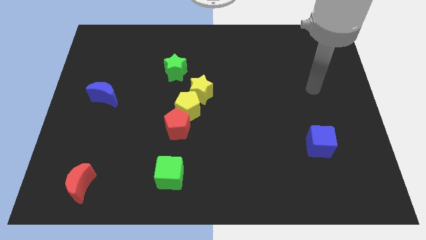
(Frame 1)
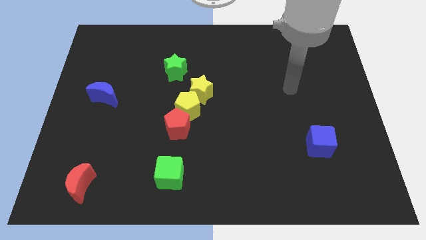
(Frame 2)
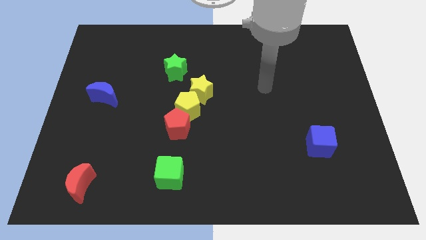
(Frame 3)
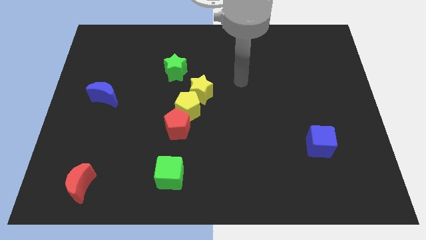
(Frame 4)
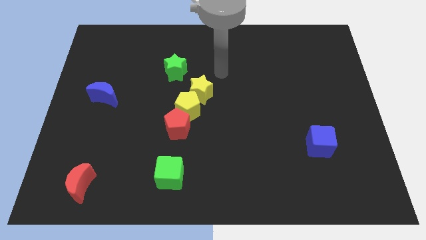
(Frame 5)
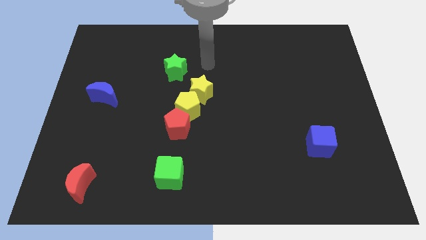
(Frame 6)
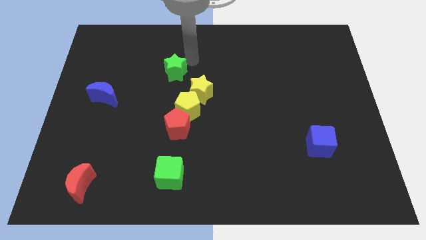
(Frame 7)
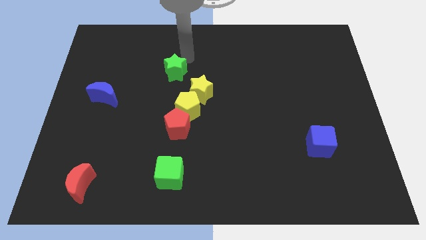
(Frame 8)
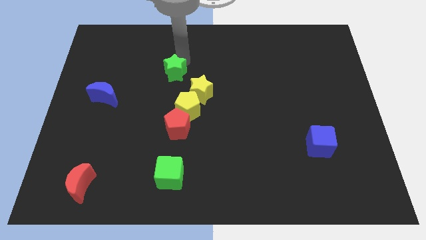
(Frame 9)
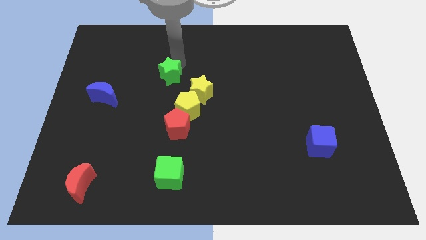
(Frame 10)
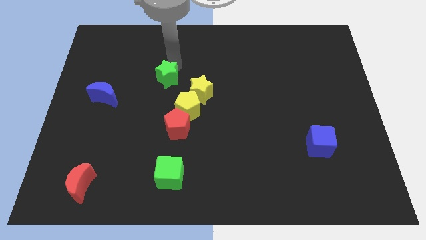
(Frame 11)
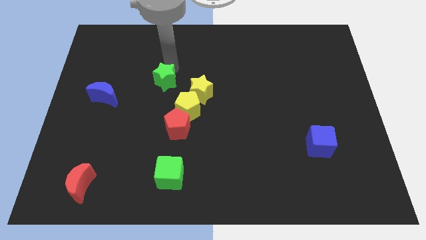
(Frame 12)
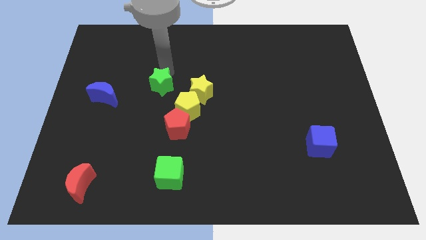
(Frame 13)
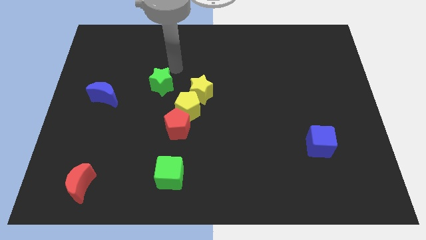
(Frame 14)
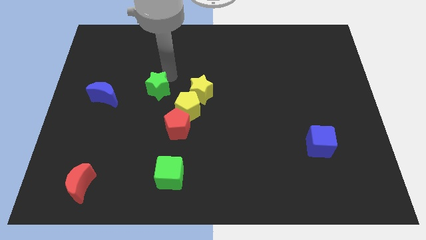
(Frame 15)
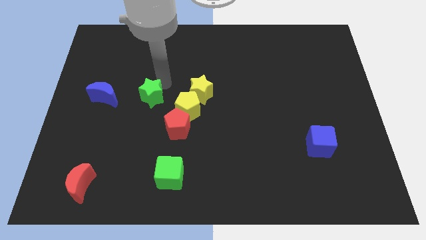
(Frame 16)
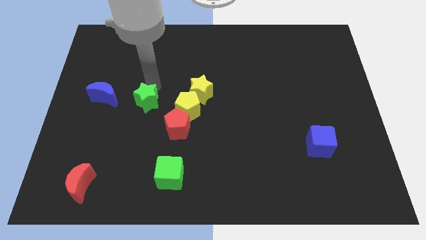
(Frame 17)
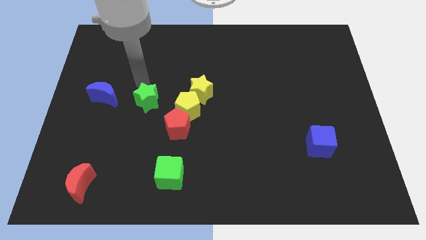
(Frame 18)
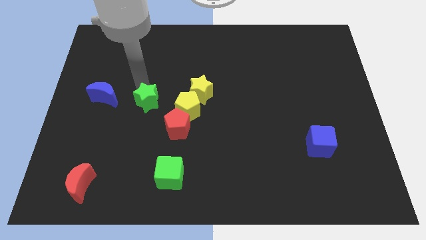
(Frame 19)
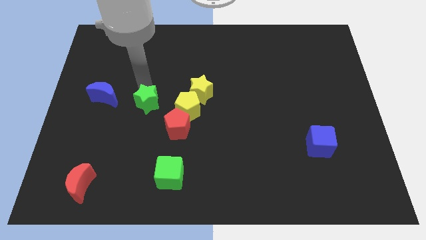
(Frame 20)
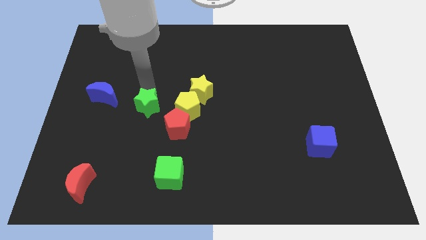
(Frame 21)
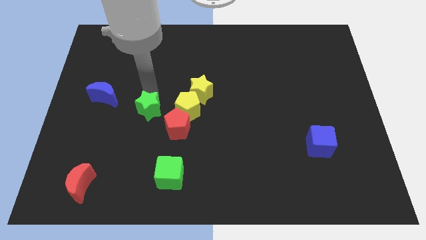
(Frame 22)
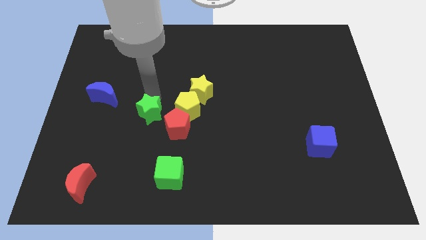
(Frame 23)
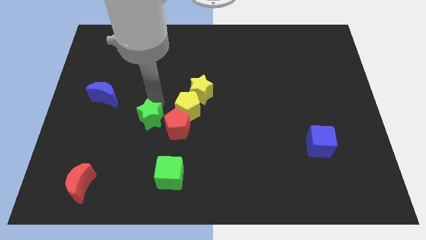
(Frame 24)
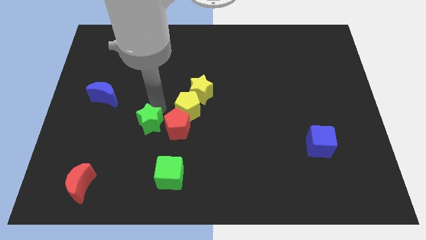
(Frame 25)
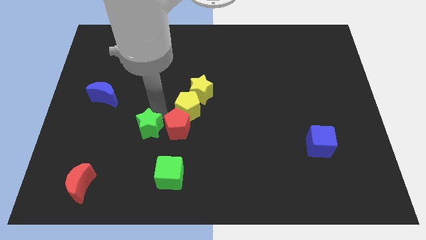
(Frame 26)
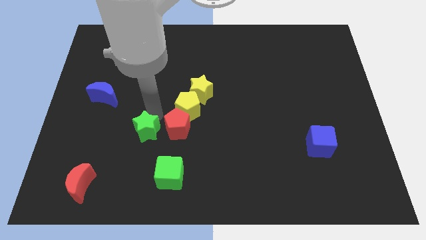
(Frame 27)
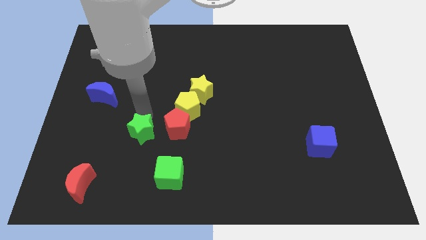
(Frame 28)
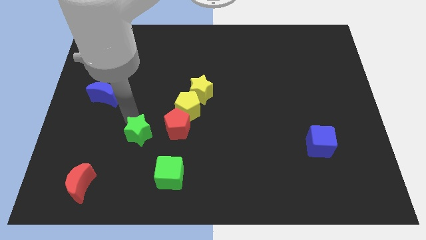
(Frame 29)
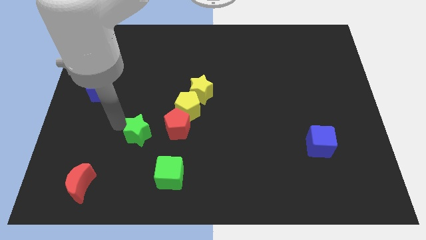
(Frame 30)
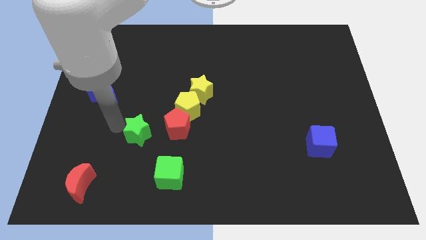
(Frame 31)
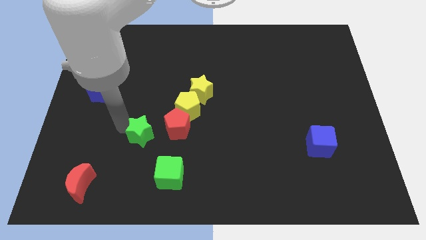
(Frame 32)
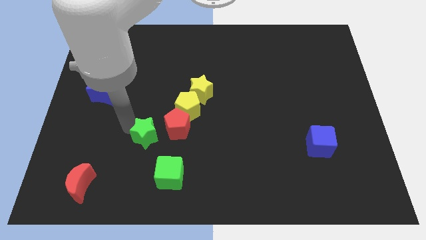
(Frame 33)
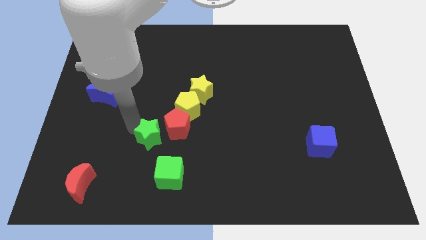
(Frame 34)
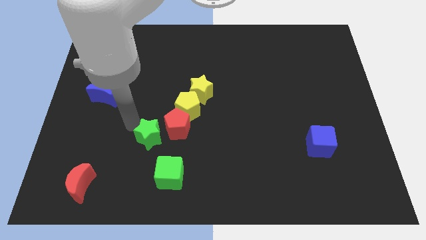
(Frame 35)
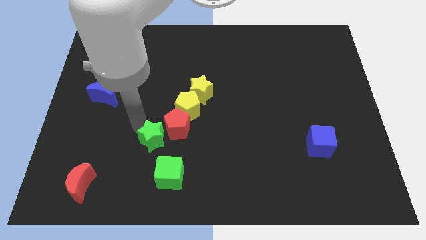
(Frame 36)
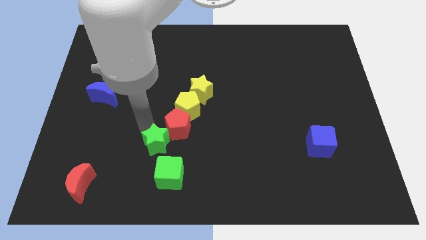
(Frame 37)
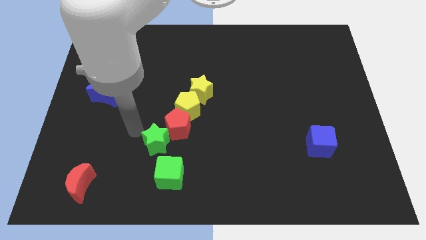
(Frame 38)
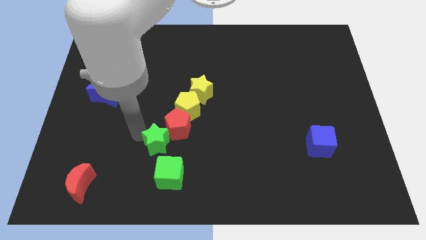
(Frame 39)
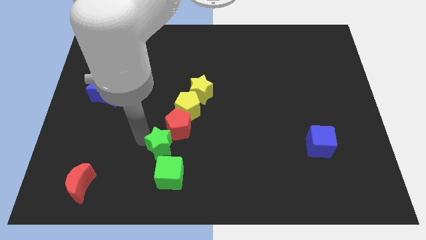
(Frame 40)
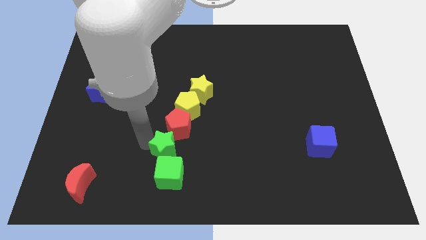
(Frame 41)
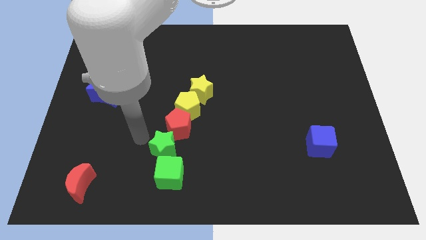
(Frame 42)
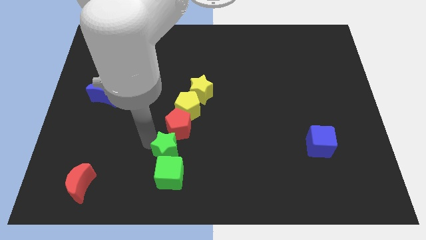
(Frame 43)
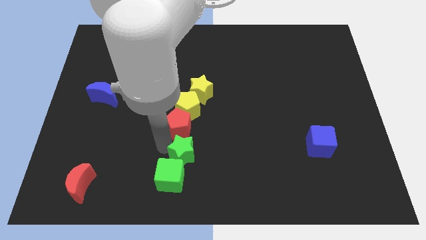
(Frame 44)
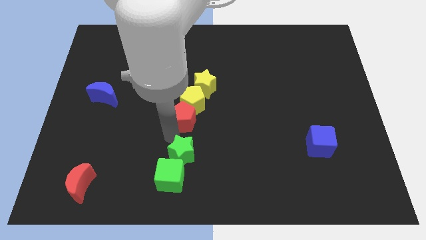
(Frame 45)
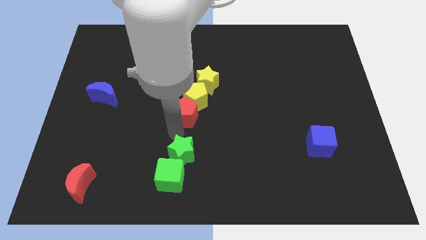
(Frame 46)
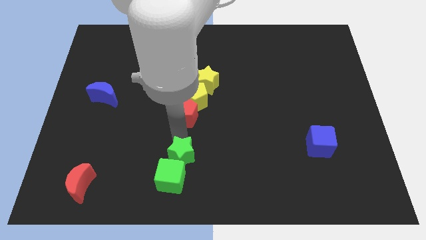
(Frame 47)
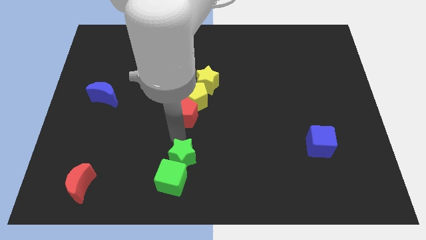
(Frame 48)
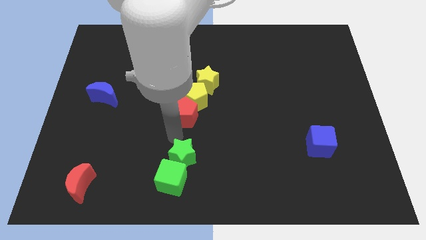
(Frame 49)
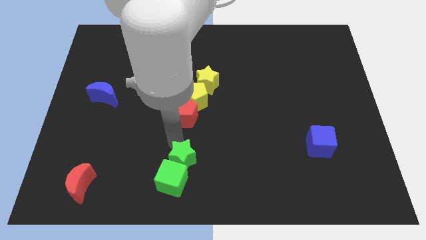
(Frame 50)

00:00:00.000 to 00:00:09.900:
put the green star to the bottom

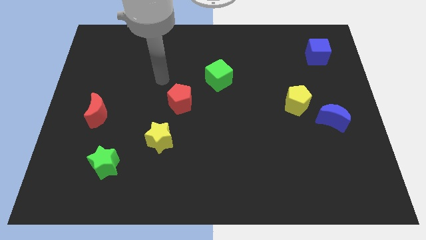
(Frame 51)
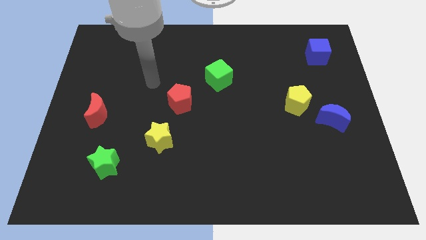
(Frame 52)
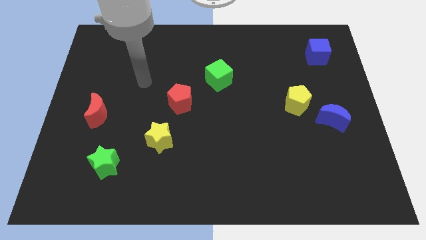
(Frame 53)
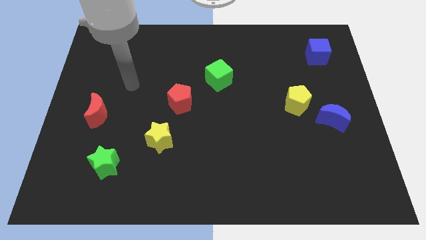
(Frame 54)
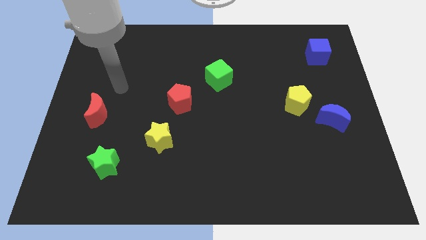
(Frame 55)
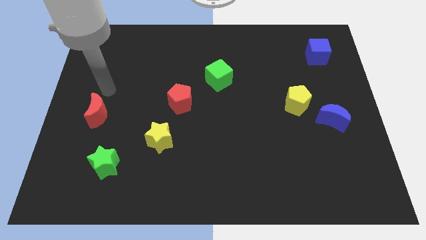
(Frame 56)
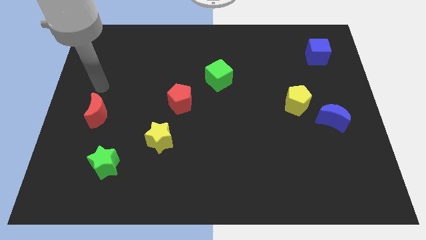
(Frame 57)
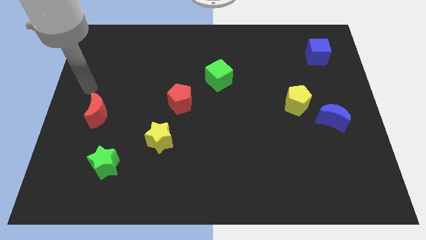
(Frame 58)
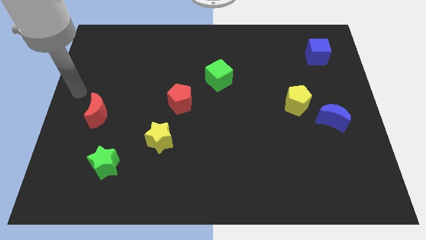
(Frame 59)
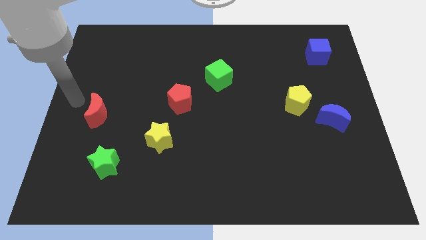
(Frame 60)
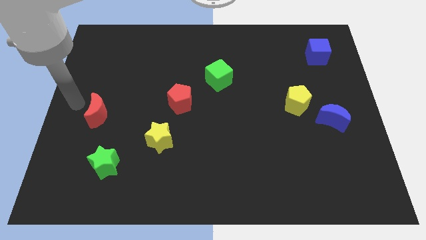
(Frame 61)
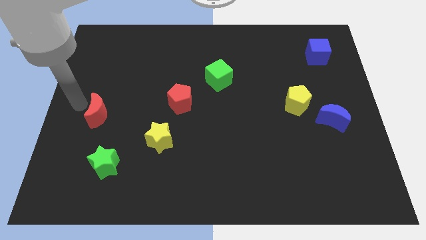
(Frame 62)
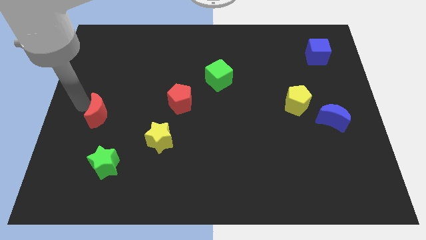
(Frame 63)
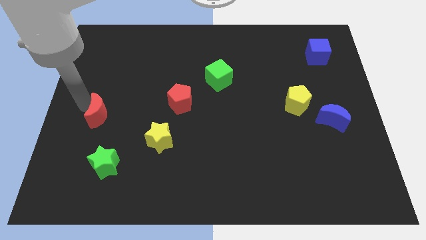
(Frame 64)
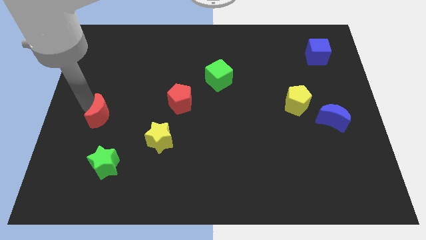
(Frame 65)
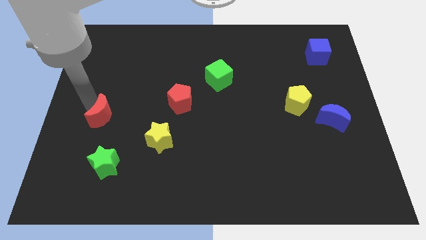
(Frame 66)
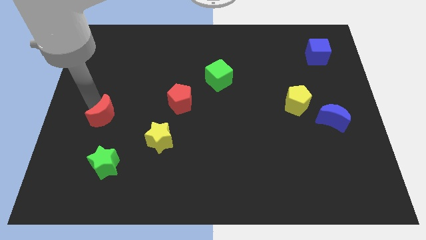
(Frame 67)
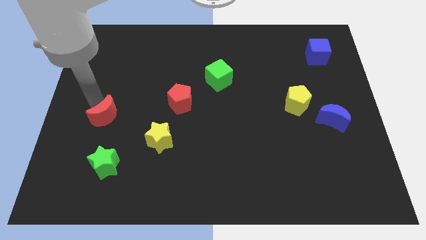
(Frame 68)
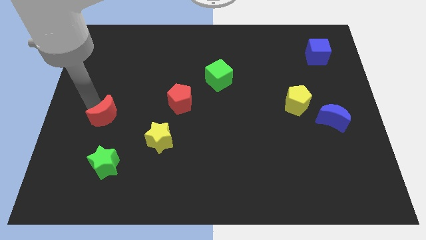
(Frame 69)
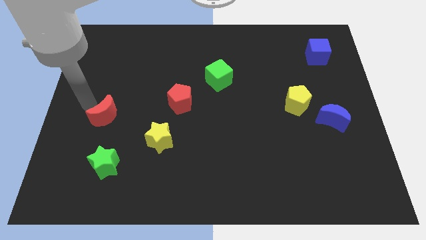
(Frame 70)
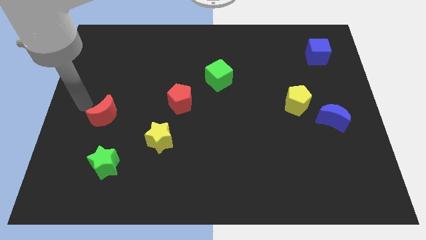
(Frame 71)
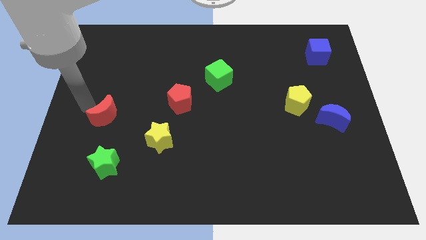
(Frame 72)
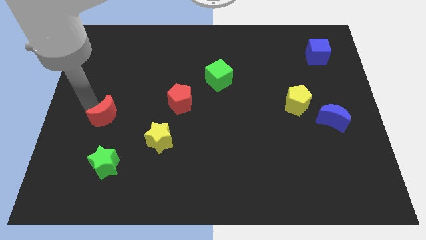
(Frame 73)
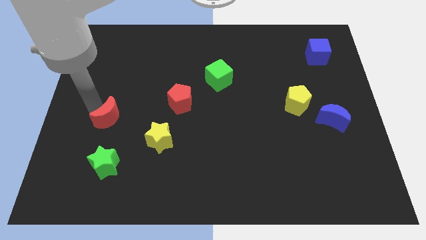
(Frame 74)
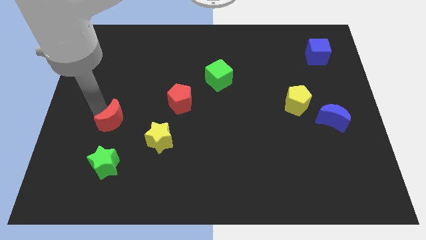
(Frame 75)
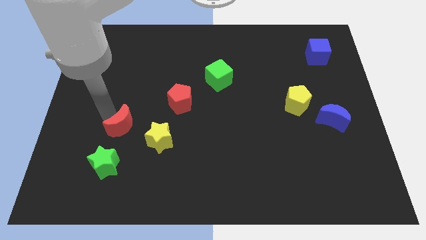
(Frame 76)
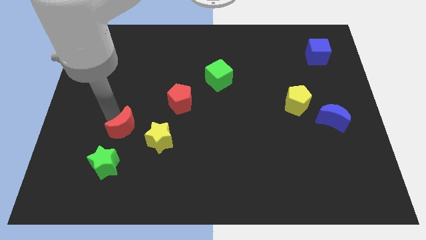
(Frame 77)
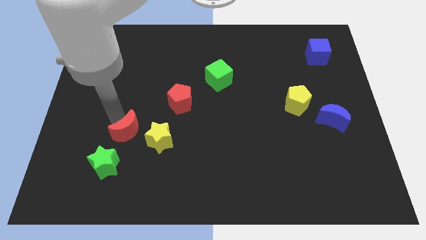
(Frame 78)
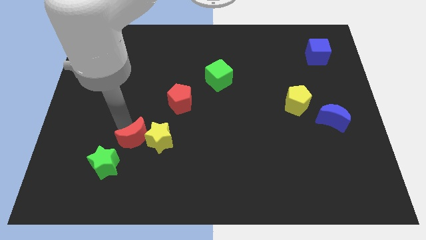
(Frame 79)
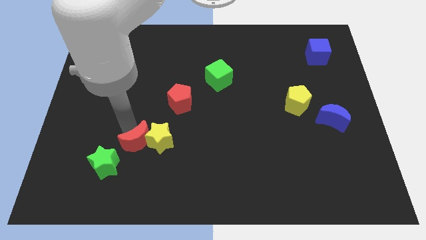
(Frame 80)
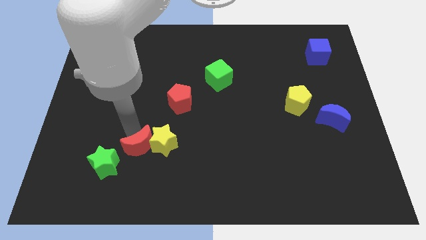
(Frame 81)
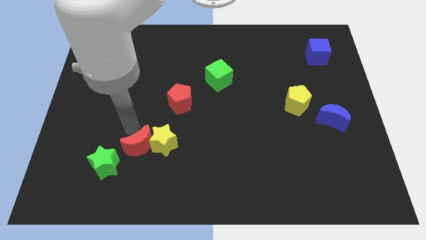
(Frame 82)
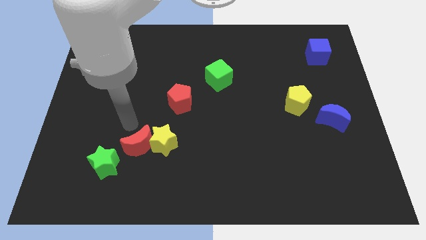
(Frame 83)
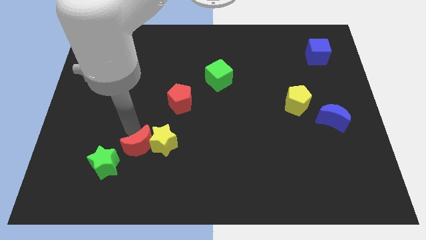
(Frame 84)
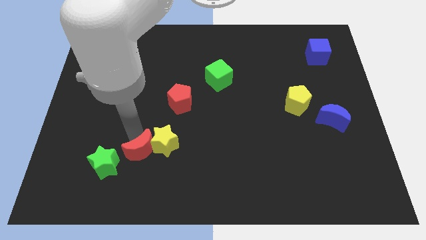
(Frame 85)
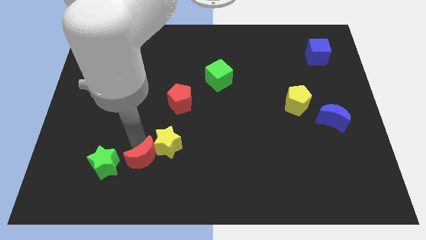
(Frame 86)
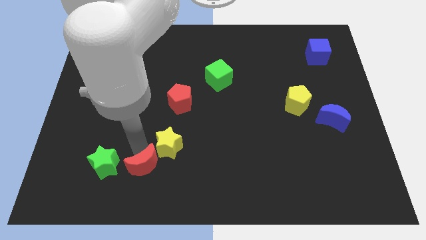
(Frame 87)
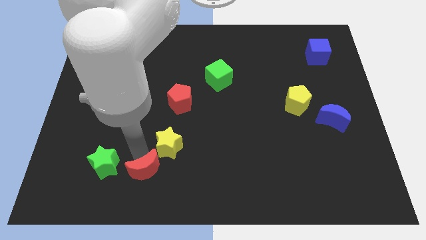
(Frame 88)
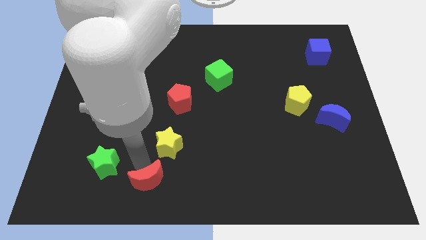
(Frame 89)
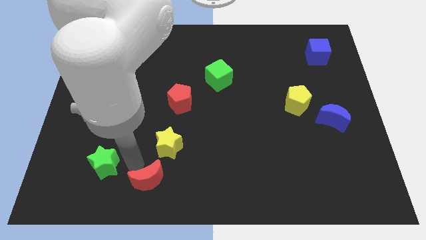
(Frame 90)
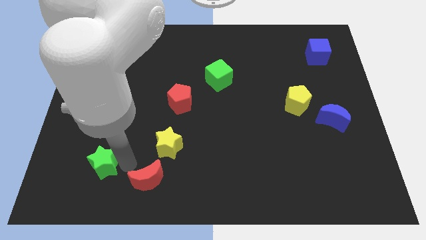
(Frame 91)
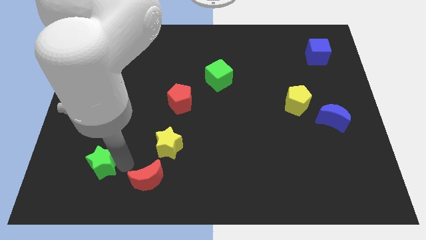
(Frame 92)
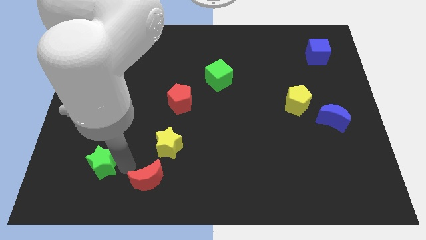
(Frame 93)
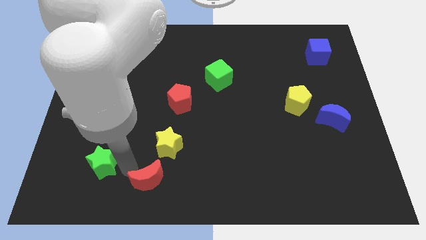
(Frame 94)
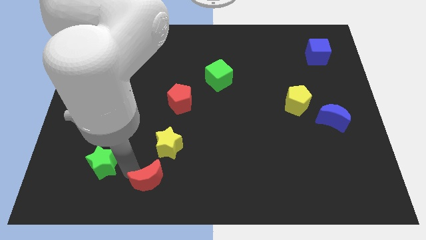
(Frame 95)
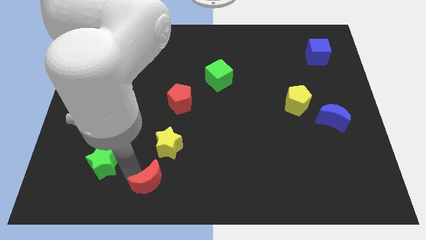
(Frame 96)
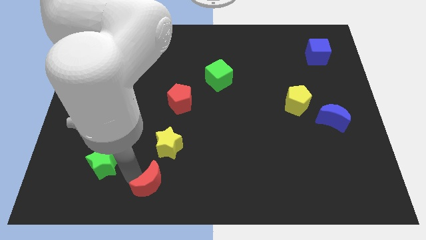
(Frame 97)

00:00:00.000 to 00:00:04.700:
put the red moon to the bottom
